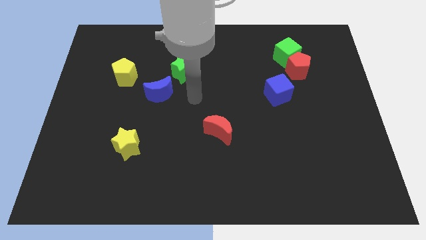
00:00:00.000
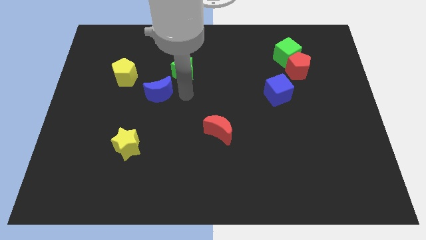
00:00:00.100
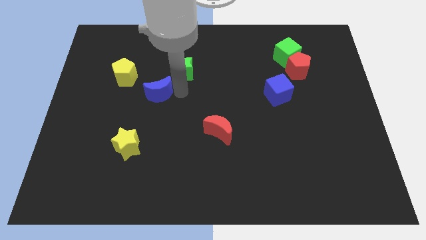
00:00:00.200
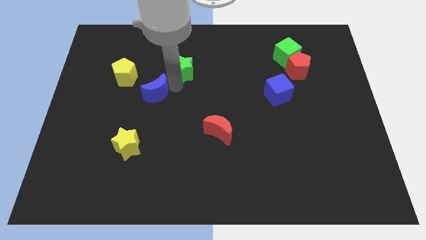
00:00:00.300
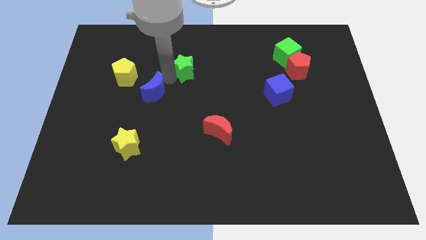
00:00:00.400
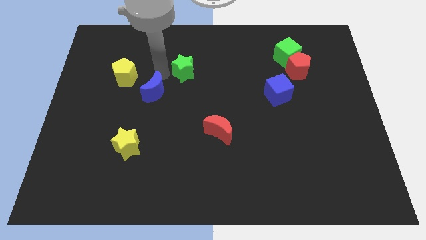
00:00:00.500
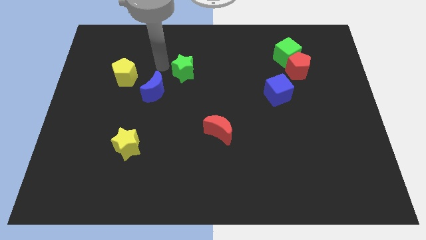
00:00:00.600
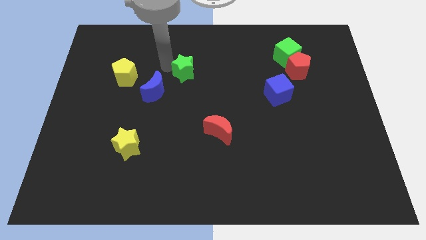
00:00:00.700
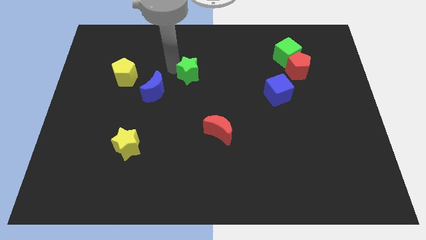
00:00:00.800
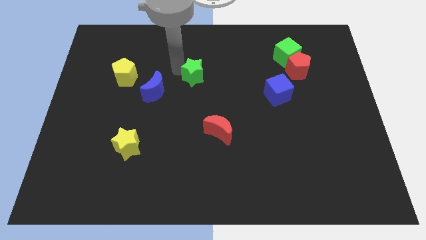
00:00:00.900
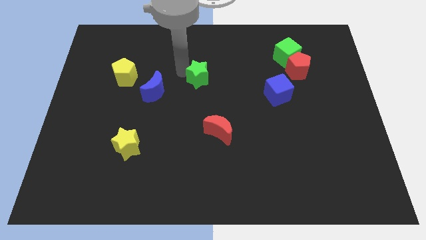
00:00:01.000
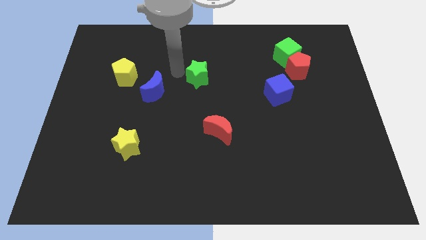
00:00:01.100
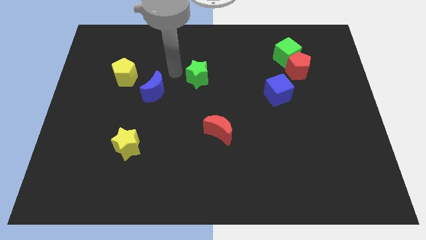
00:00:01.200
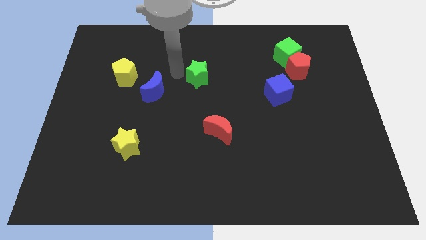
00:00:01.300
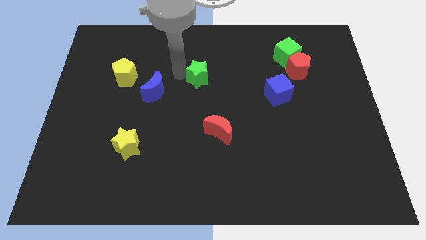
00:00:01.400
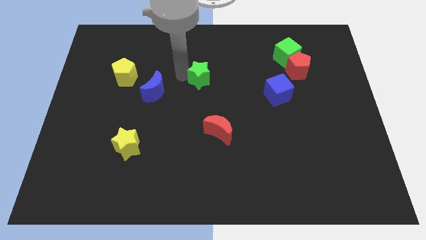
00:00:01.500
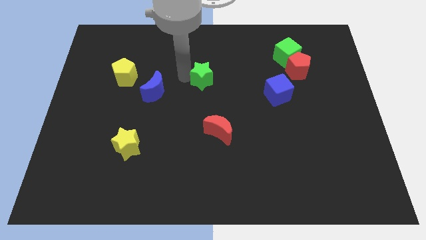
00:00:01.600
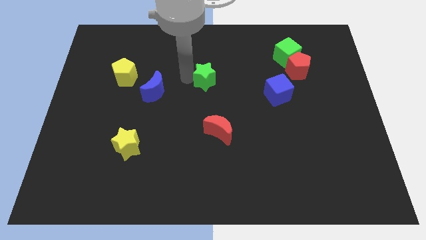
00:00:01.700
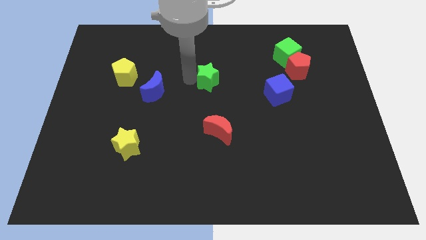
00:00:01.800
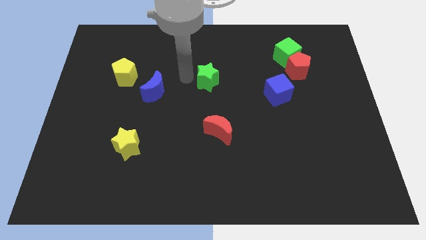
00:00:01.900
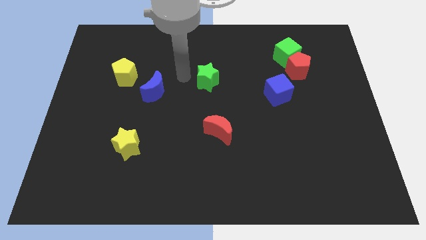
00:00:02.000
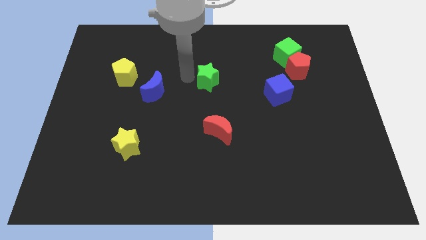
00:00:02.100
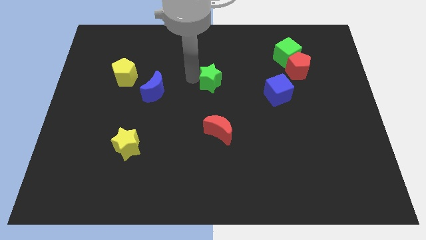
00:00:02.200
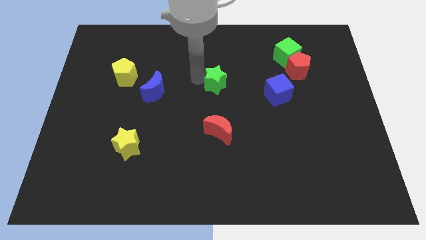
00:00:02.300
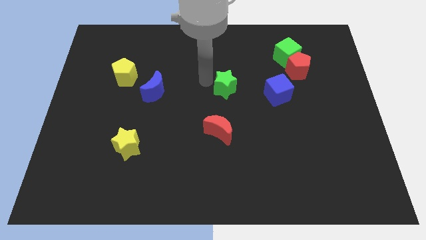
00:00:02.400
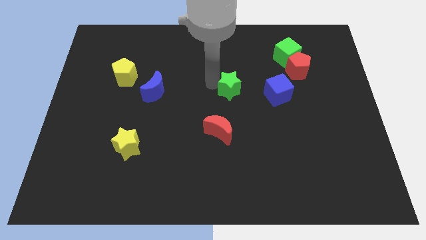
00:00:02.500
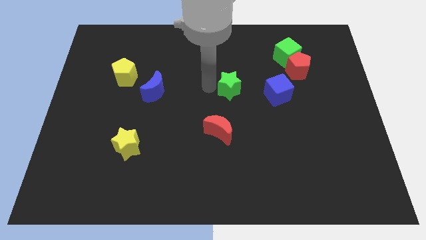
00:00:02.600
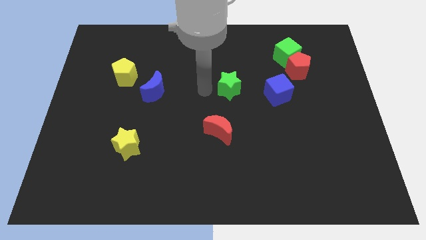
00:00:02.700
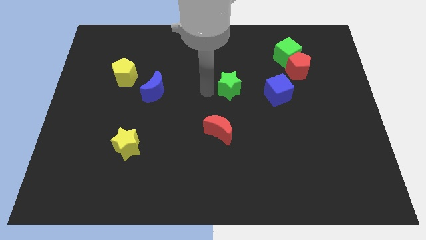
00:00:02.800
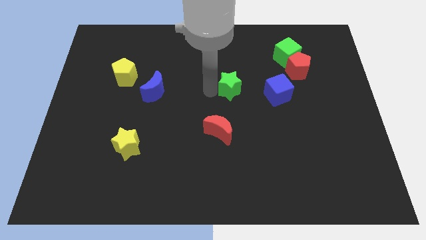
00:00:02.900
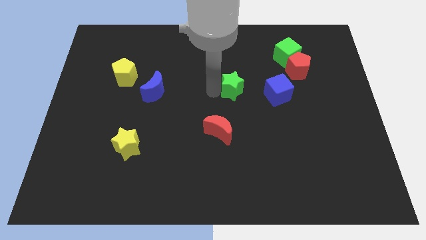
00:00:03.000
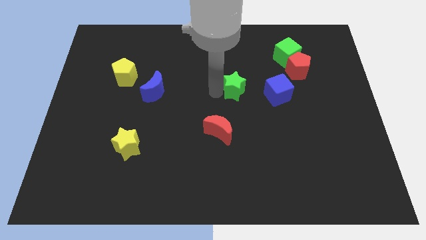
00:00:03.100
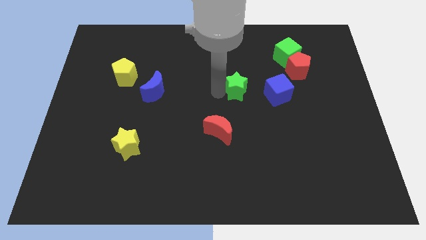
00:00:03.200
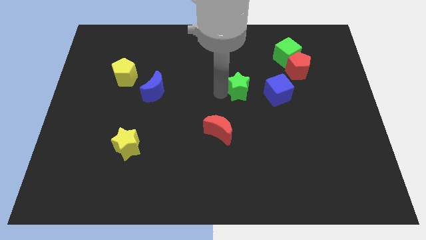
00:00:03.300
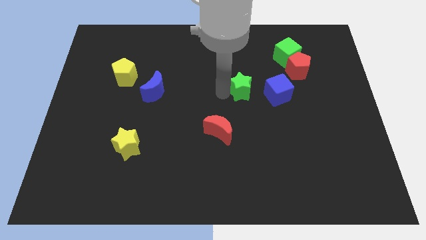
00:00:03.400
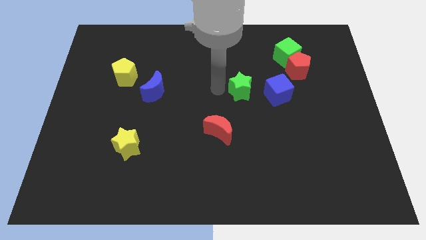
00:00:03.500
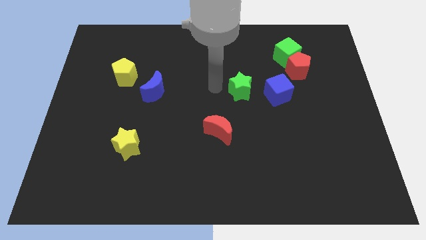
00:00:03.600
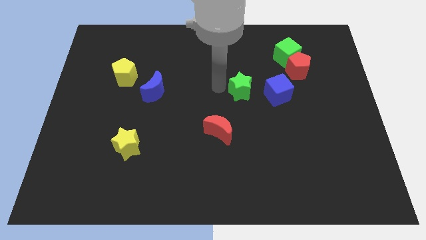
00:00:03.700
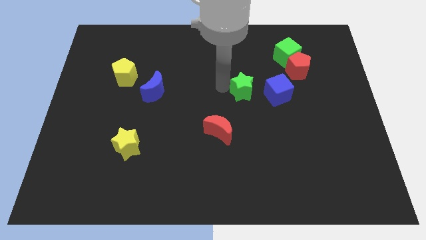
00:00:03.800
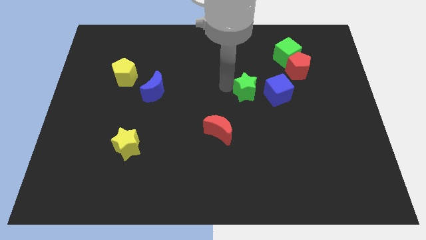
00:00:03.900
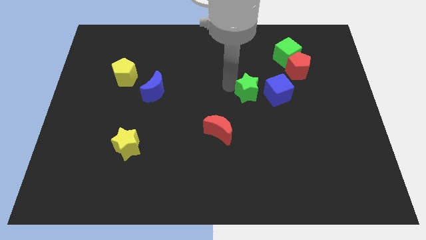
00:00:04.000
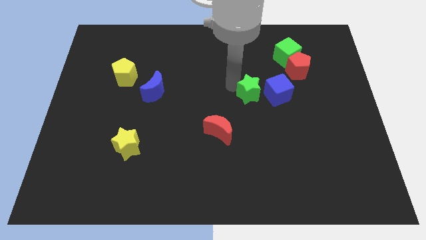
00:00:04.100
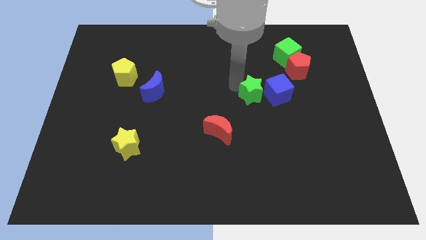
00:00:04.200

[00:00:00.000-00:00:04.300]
move the green star close to the blue cube

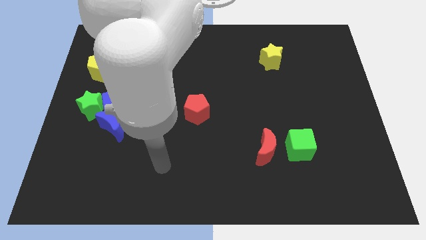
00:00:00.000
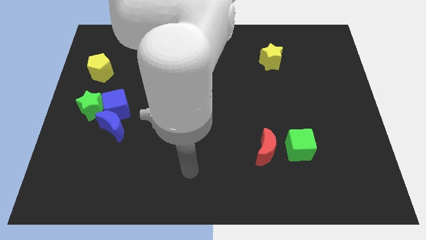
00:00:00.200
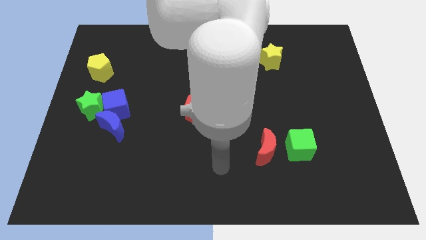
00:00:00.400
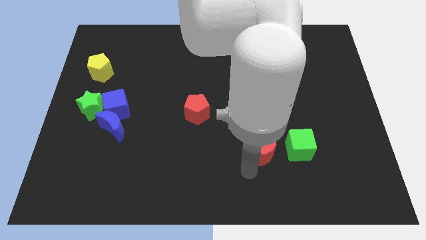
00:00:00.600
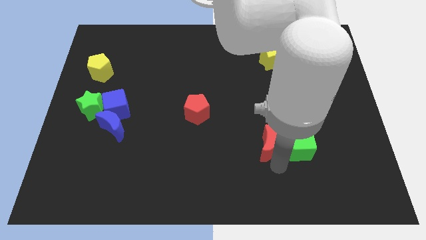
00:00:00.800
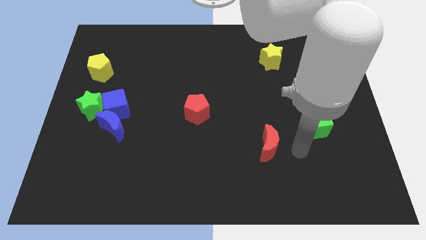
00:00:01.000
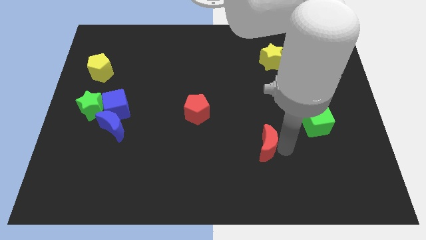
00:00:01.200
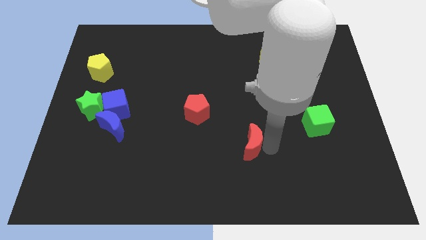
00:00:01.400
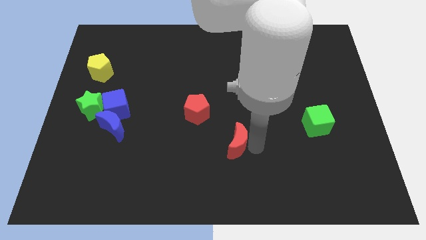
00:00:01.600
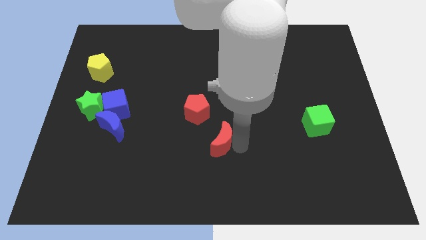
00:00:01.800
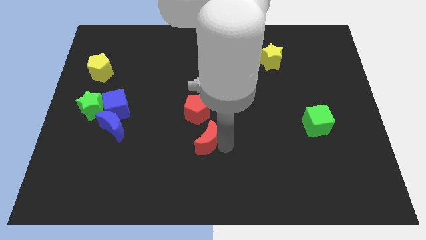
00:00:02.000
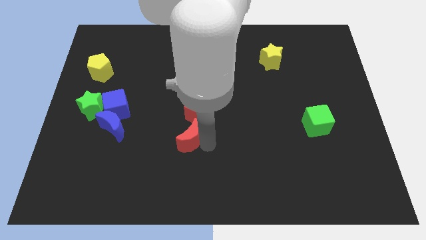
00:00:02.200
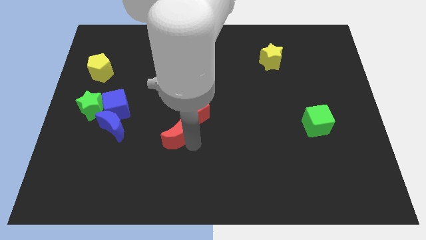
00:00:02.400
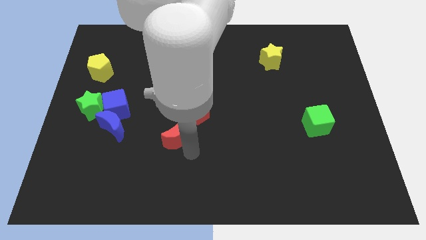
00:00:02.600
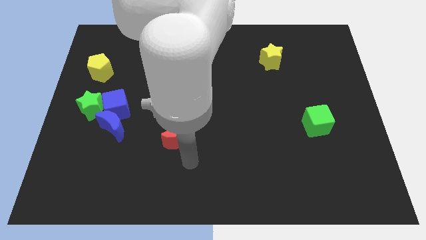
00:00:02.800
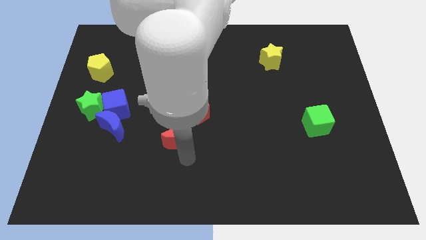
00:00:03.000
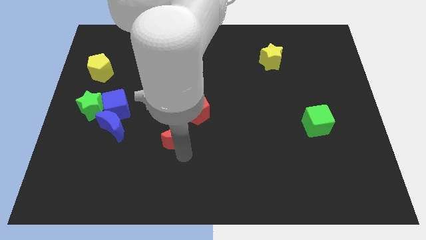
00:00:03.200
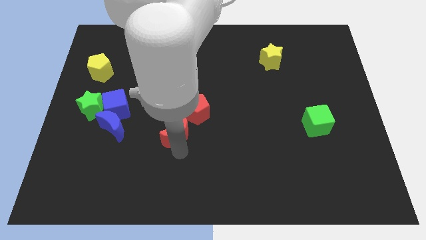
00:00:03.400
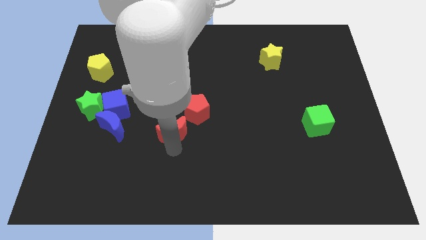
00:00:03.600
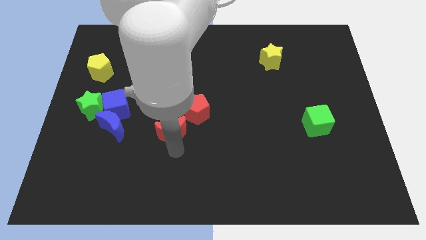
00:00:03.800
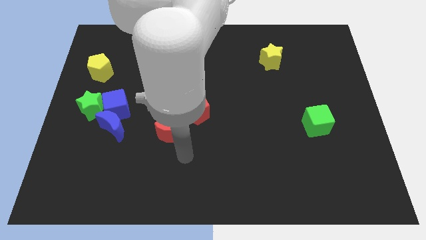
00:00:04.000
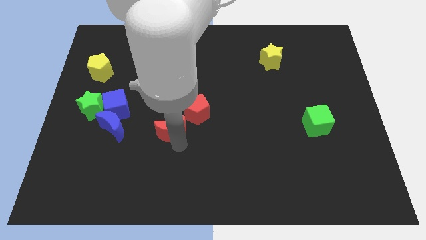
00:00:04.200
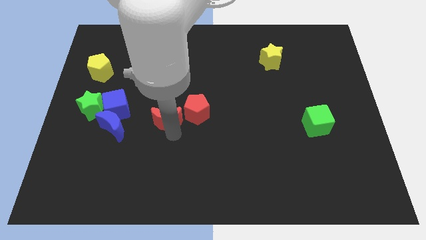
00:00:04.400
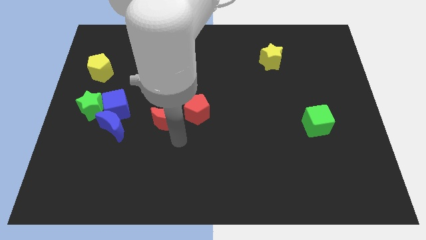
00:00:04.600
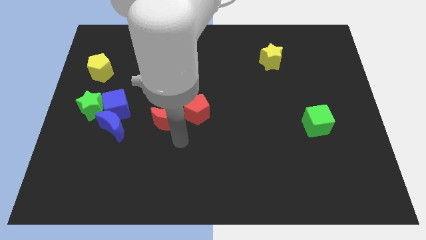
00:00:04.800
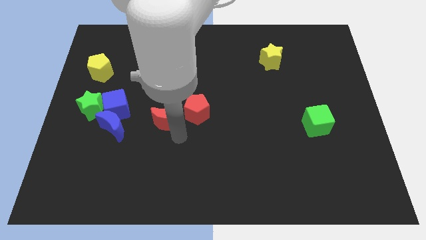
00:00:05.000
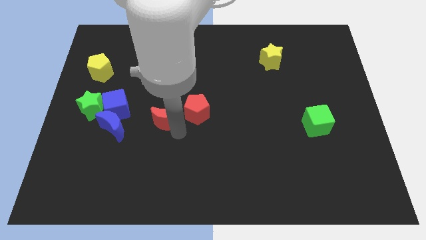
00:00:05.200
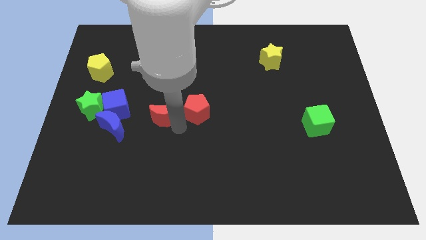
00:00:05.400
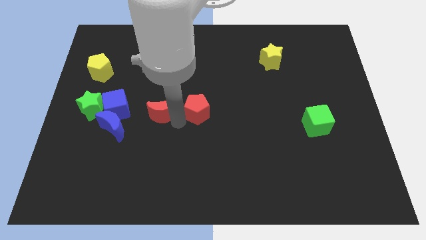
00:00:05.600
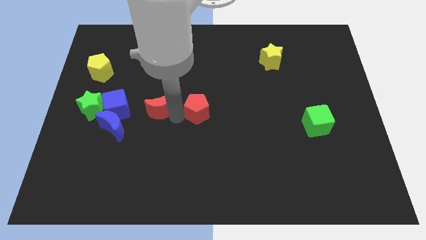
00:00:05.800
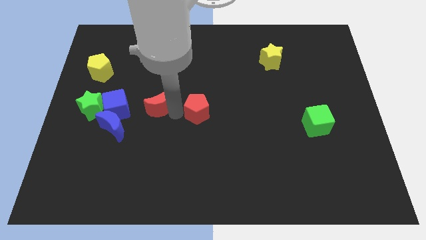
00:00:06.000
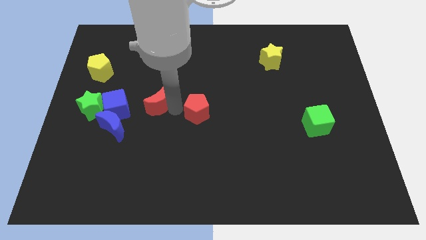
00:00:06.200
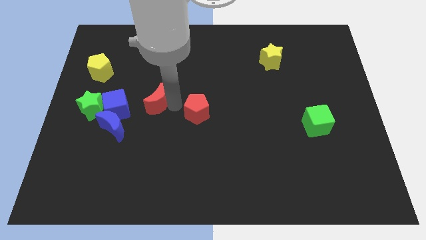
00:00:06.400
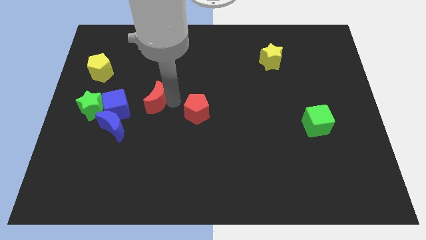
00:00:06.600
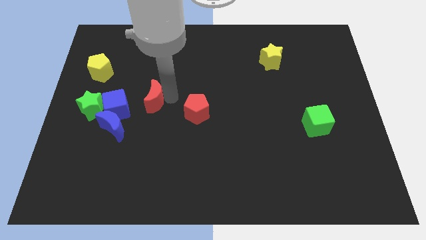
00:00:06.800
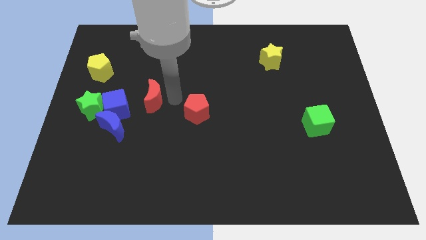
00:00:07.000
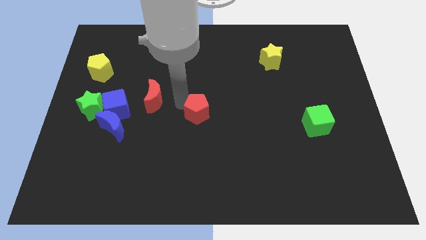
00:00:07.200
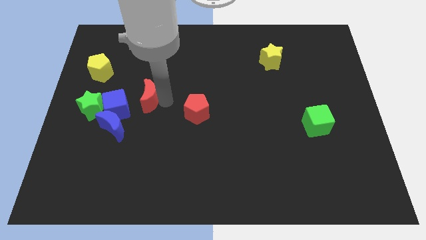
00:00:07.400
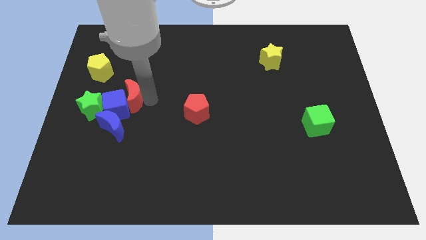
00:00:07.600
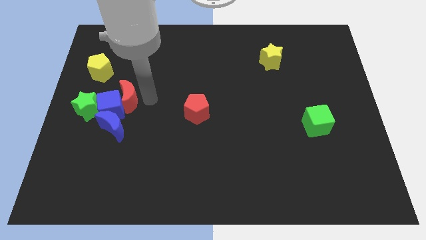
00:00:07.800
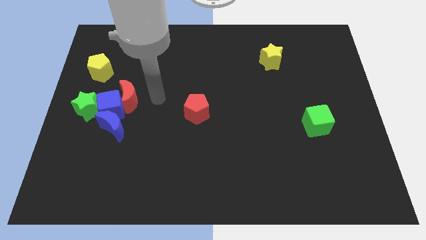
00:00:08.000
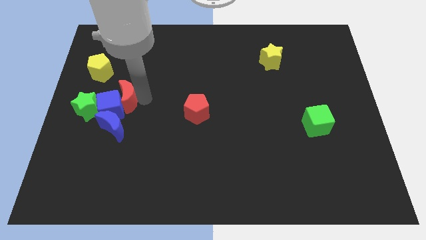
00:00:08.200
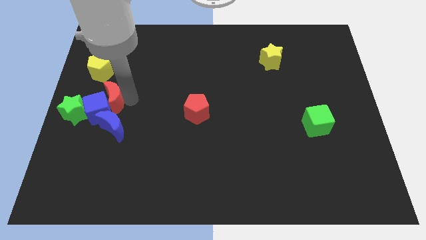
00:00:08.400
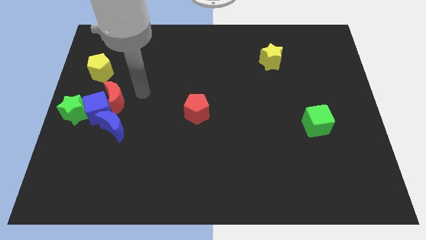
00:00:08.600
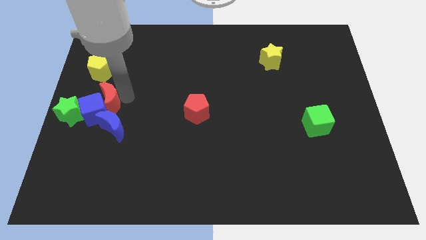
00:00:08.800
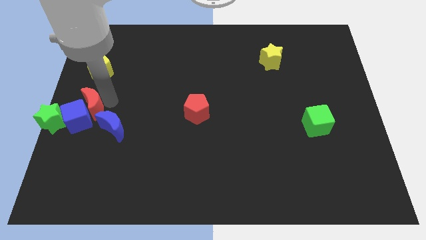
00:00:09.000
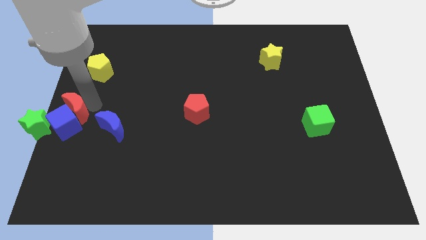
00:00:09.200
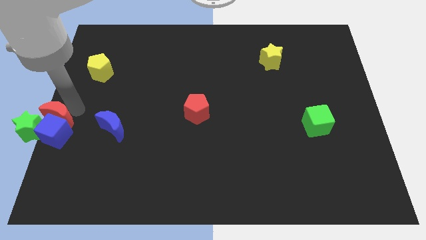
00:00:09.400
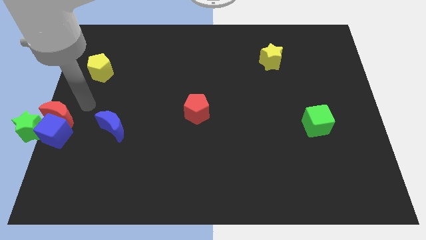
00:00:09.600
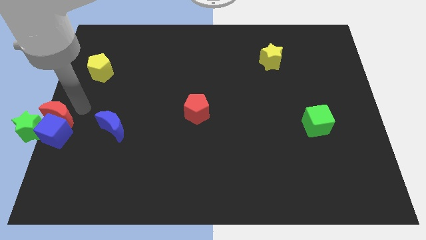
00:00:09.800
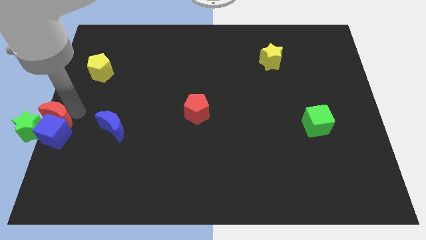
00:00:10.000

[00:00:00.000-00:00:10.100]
put the red moon next to the green star
